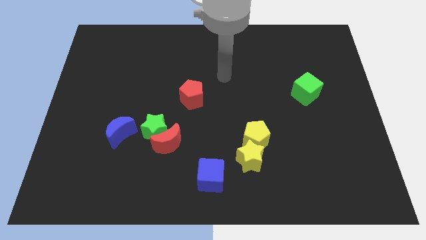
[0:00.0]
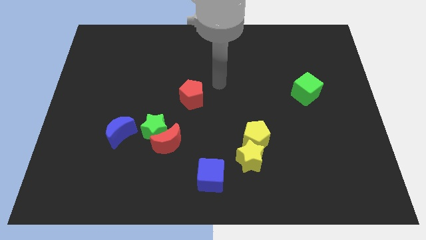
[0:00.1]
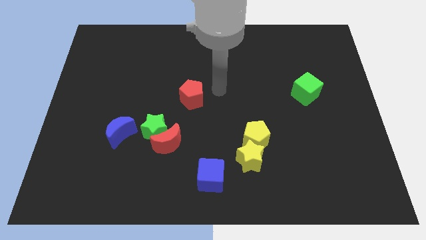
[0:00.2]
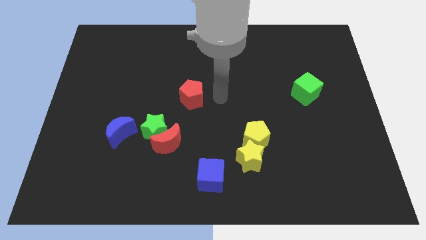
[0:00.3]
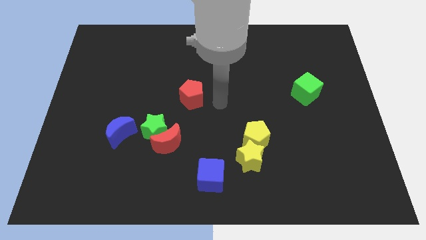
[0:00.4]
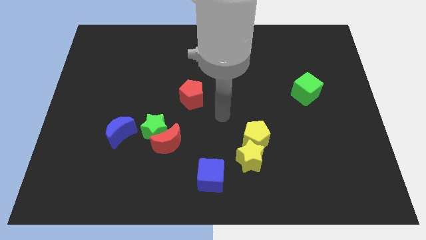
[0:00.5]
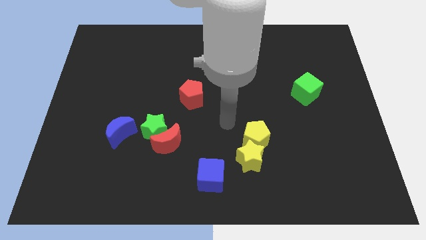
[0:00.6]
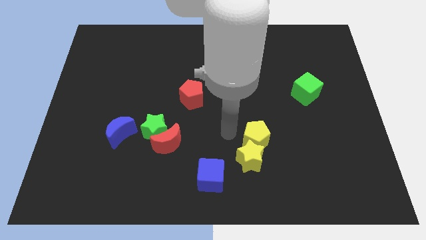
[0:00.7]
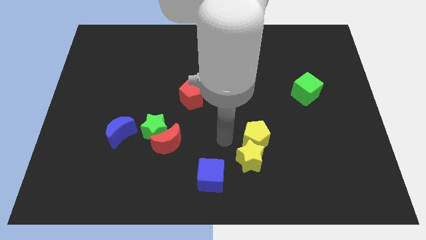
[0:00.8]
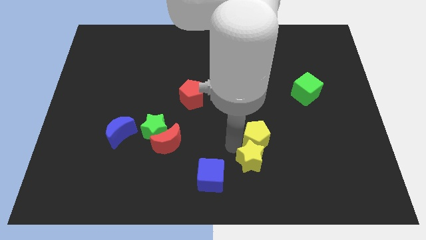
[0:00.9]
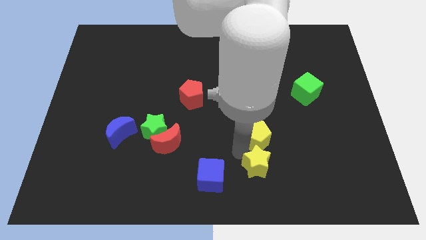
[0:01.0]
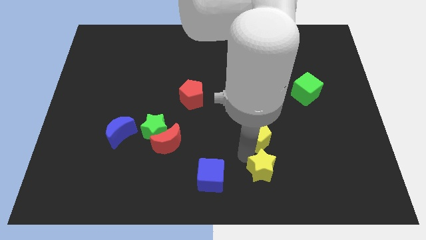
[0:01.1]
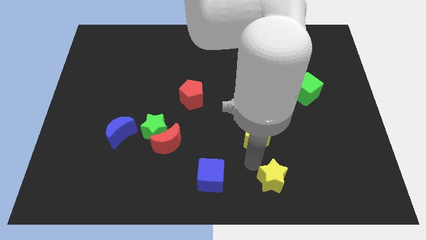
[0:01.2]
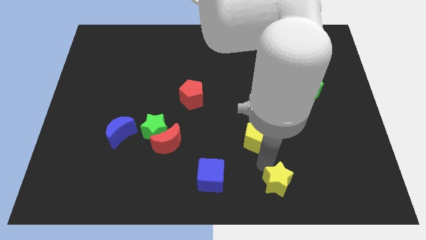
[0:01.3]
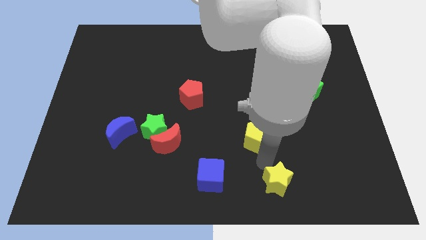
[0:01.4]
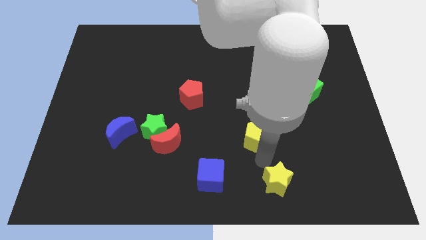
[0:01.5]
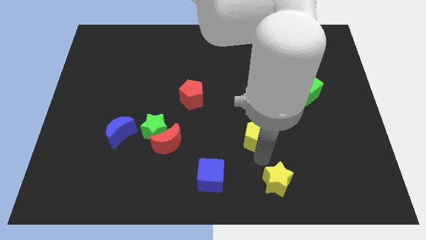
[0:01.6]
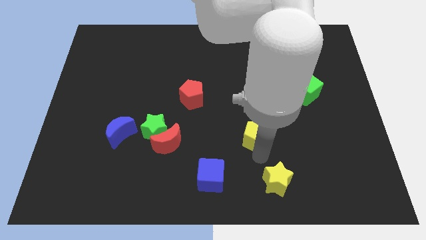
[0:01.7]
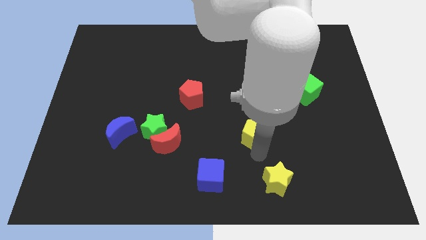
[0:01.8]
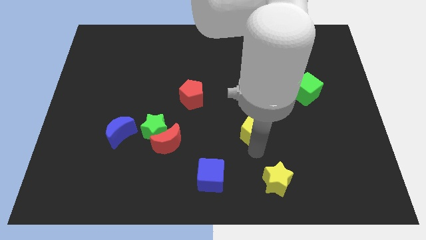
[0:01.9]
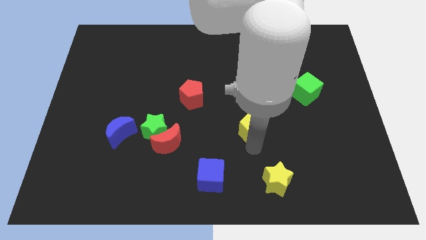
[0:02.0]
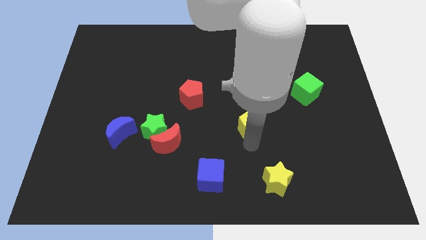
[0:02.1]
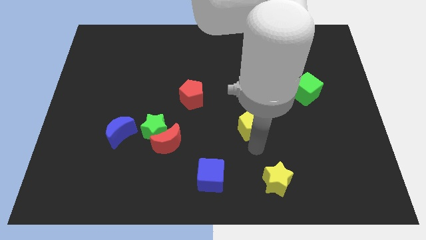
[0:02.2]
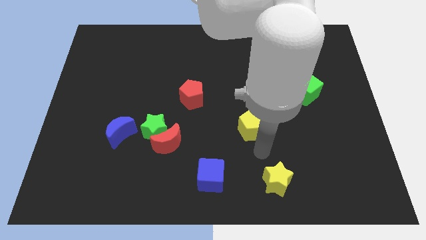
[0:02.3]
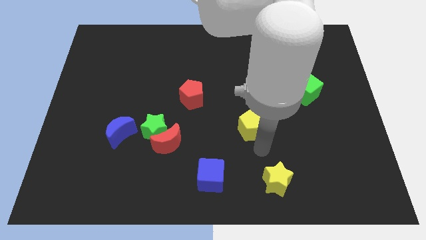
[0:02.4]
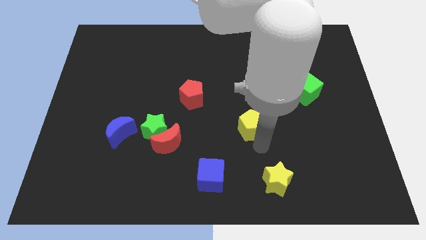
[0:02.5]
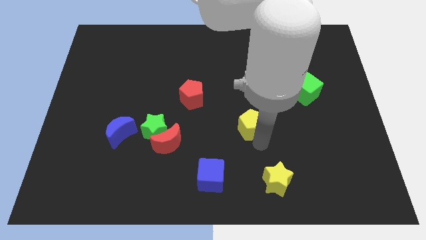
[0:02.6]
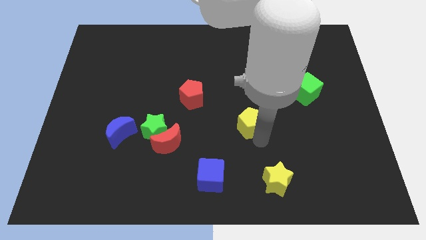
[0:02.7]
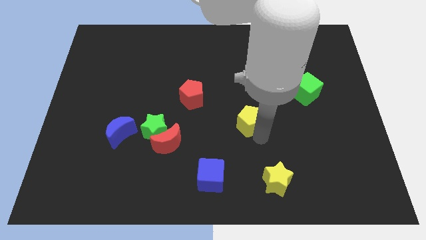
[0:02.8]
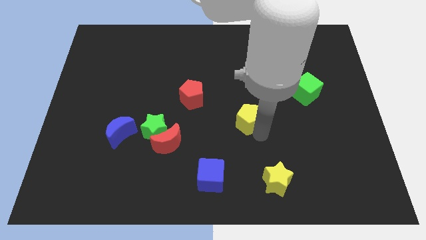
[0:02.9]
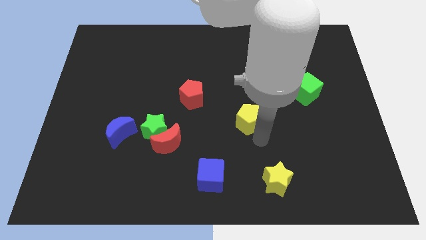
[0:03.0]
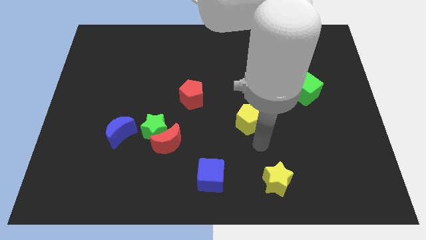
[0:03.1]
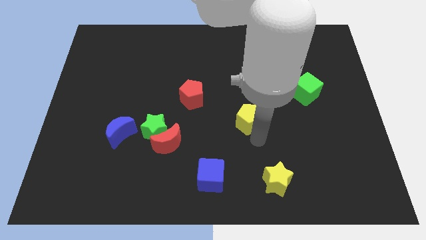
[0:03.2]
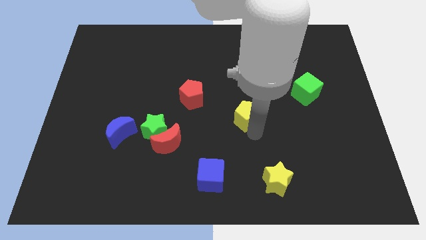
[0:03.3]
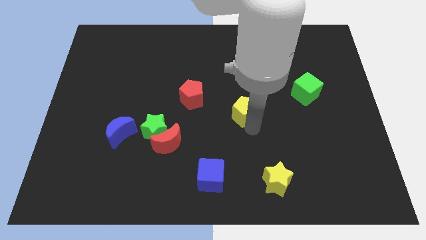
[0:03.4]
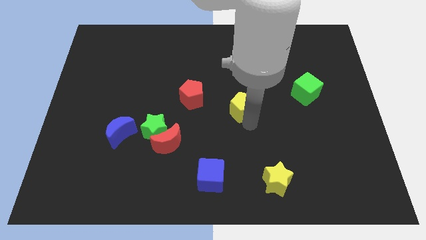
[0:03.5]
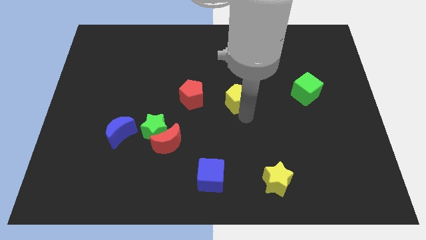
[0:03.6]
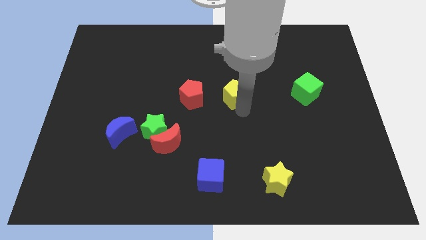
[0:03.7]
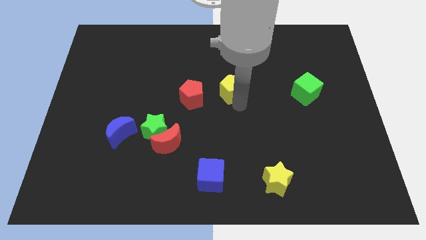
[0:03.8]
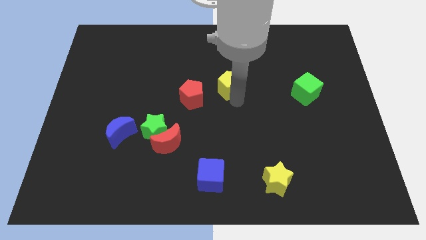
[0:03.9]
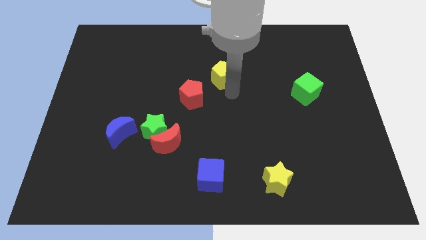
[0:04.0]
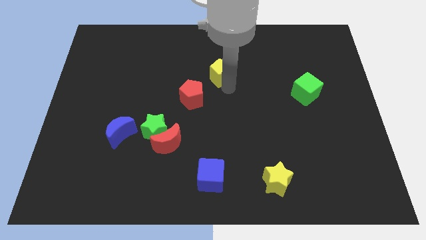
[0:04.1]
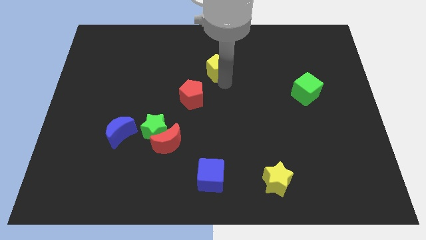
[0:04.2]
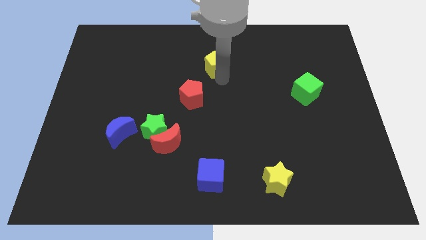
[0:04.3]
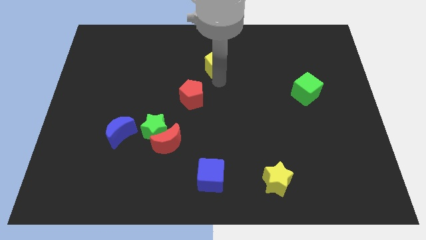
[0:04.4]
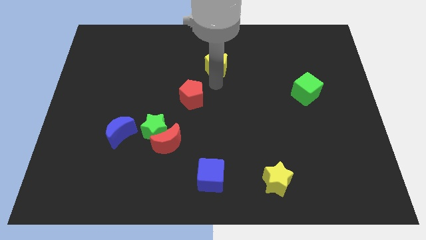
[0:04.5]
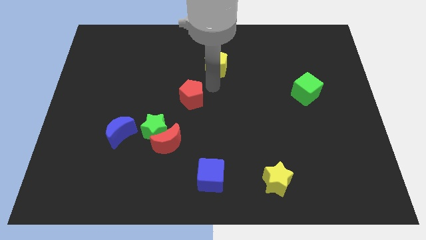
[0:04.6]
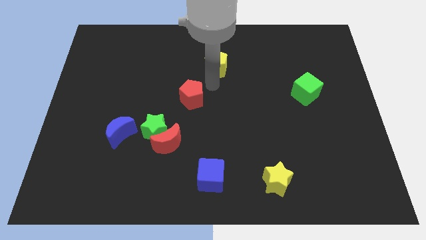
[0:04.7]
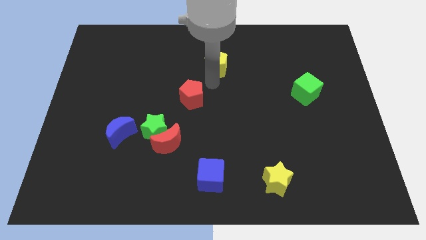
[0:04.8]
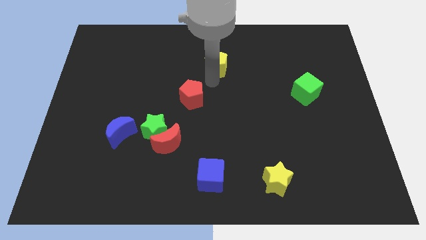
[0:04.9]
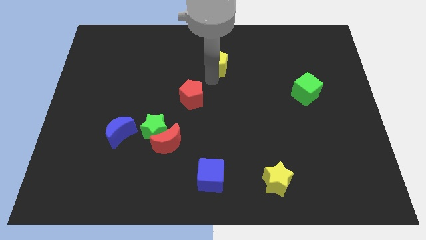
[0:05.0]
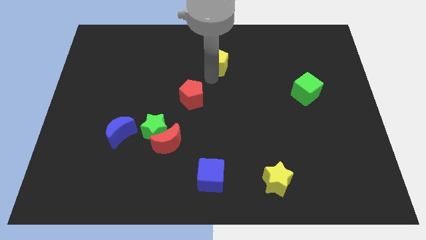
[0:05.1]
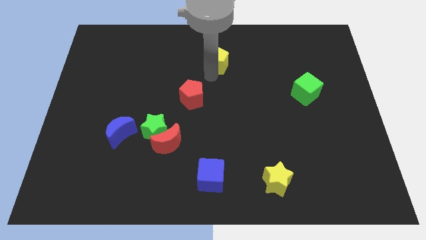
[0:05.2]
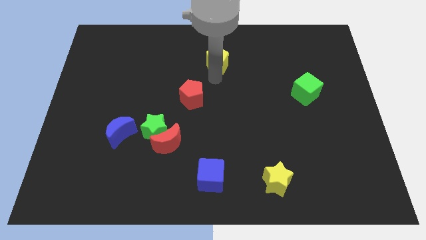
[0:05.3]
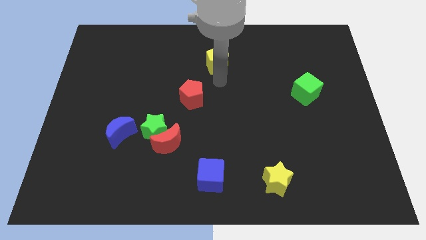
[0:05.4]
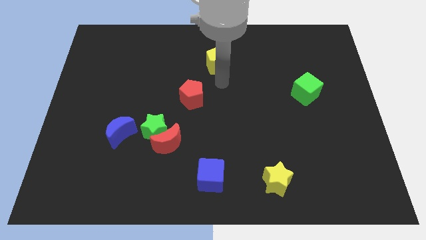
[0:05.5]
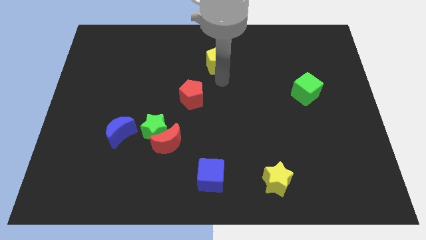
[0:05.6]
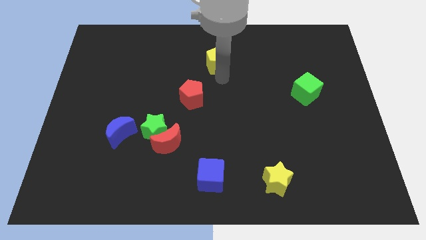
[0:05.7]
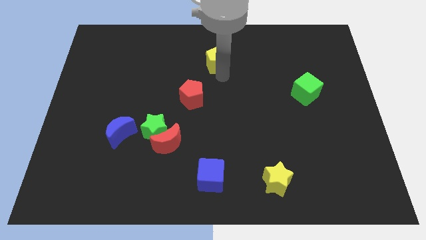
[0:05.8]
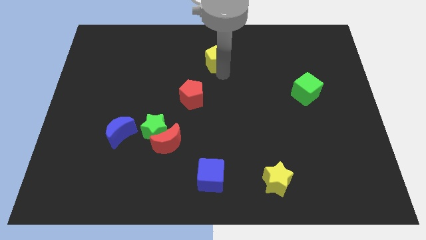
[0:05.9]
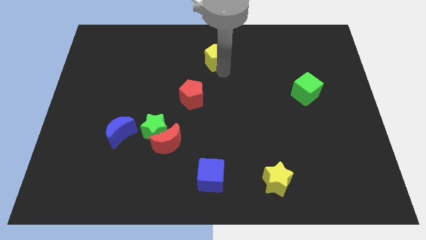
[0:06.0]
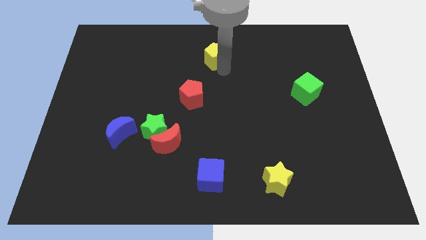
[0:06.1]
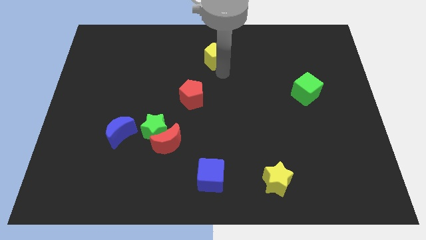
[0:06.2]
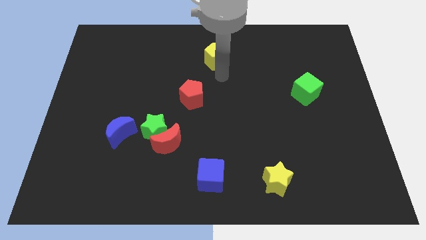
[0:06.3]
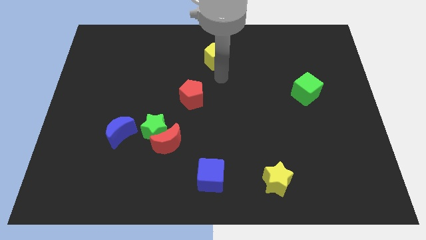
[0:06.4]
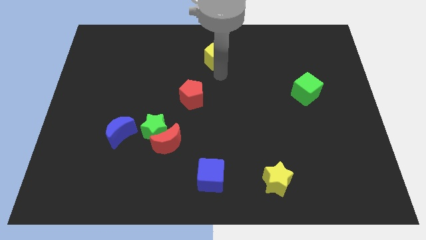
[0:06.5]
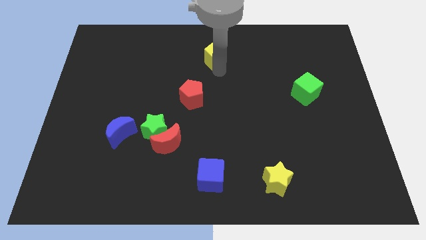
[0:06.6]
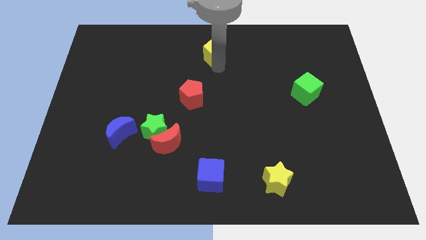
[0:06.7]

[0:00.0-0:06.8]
put the yellow pentagon to the towards your base
